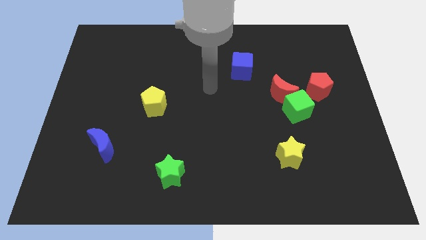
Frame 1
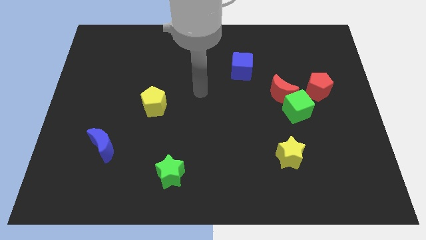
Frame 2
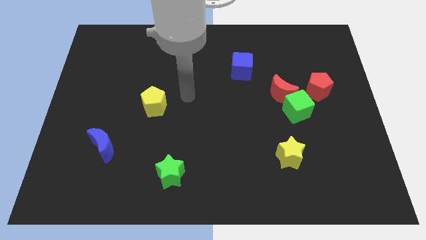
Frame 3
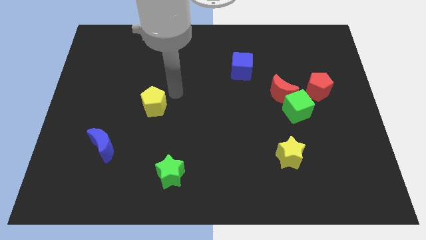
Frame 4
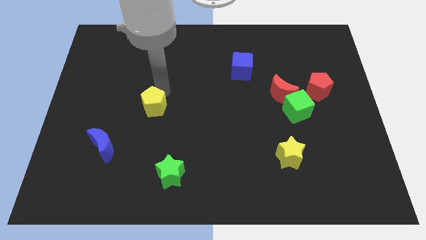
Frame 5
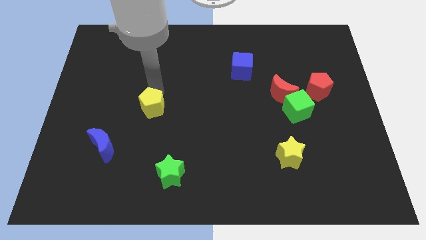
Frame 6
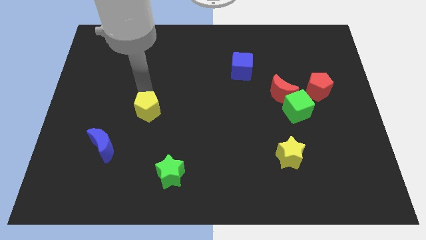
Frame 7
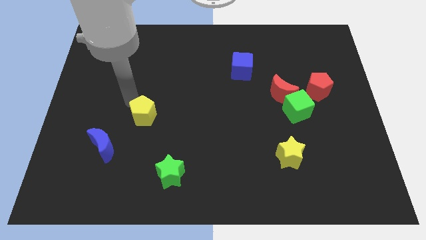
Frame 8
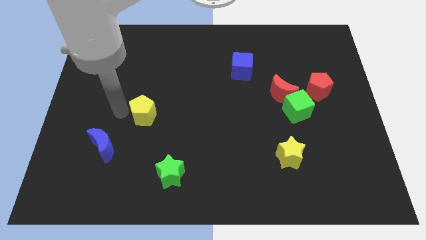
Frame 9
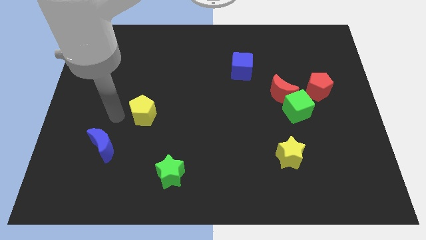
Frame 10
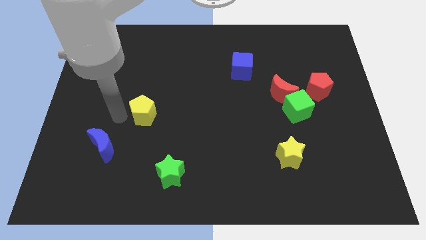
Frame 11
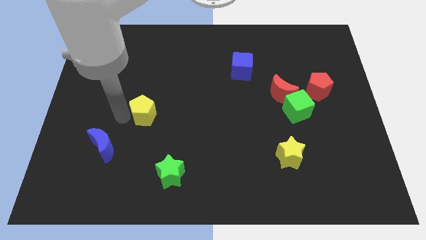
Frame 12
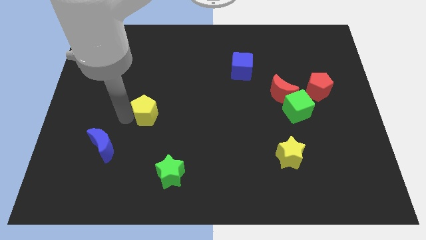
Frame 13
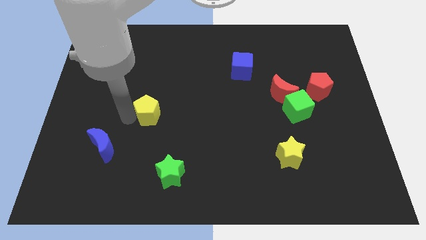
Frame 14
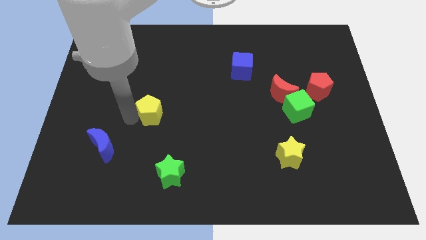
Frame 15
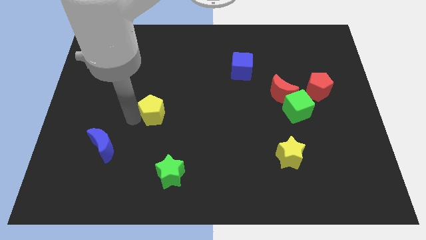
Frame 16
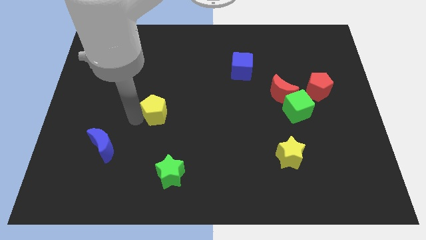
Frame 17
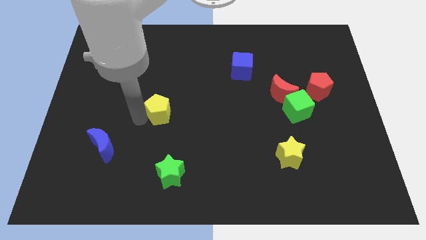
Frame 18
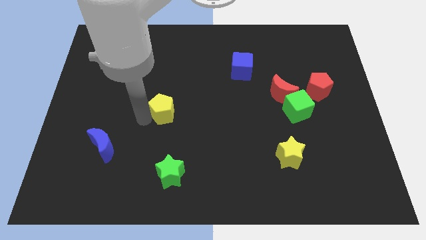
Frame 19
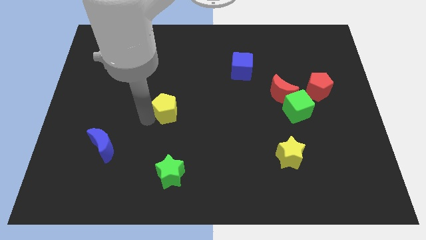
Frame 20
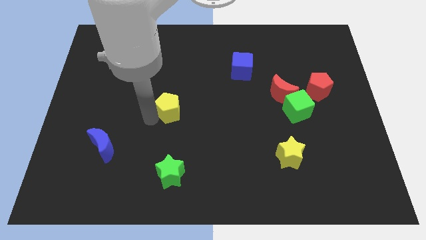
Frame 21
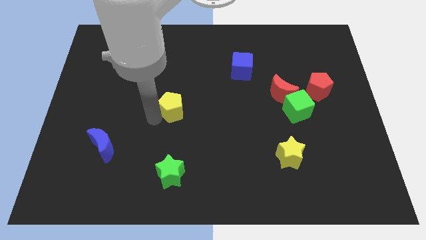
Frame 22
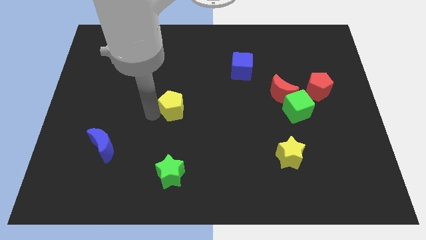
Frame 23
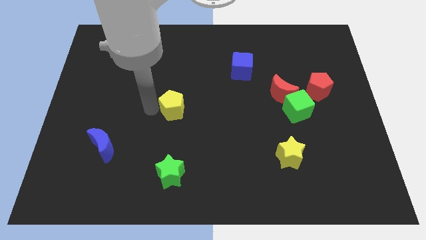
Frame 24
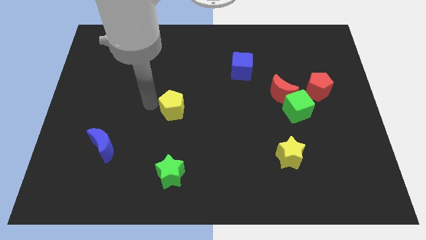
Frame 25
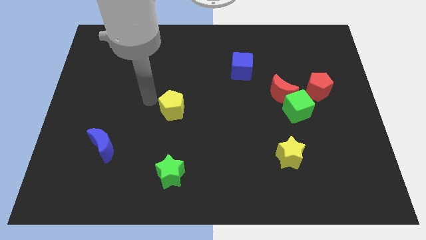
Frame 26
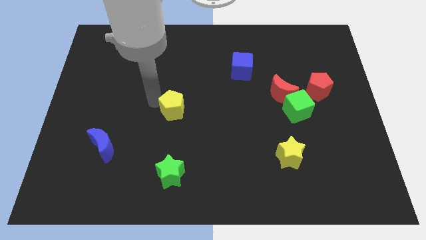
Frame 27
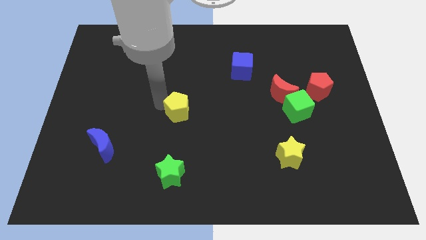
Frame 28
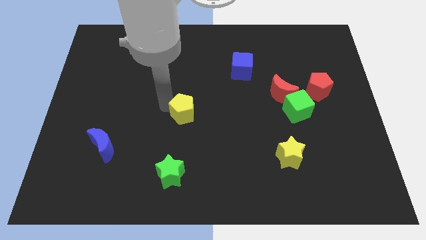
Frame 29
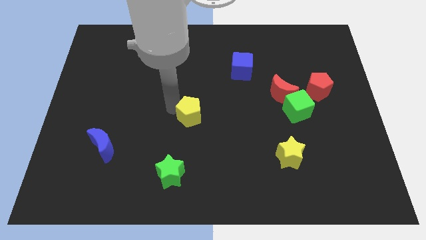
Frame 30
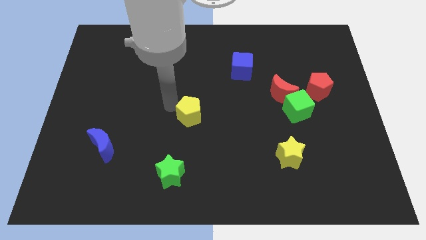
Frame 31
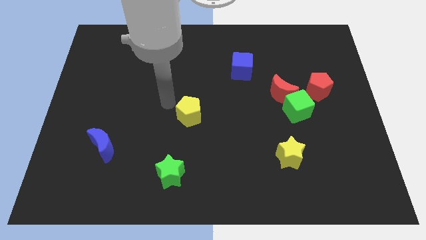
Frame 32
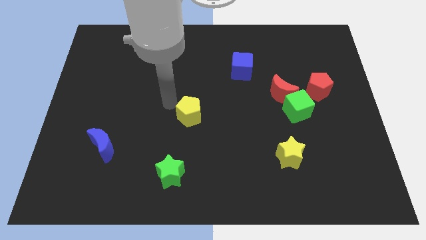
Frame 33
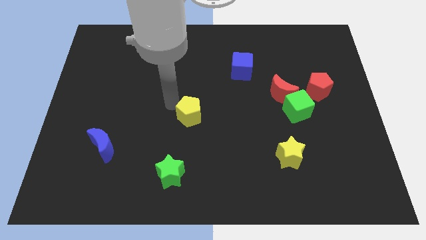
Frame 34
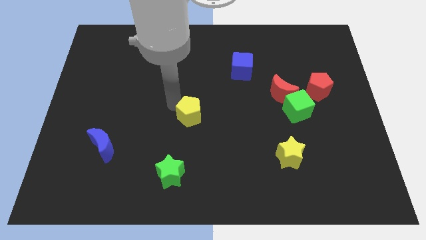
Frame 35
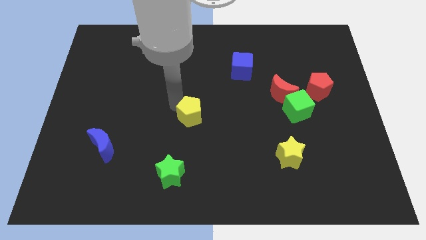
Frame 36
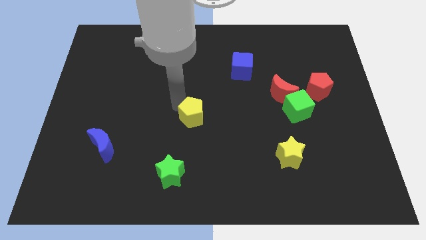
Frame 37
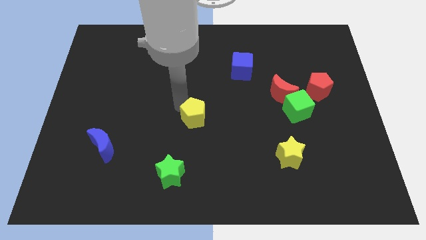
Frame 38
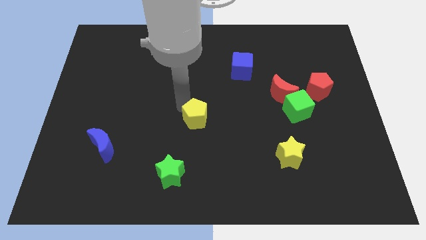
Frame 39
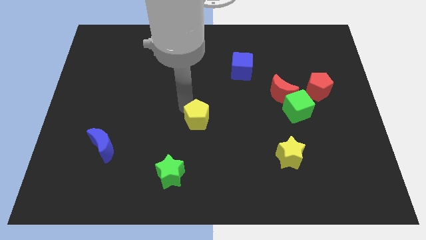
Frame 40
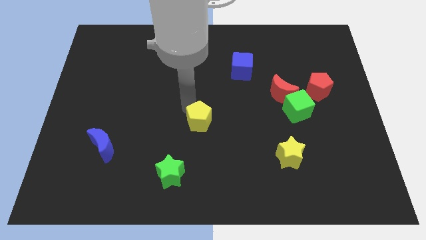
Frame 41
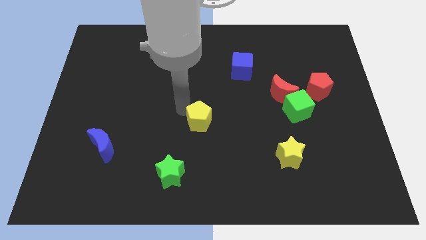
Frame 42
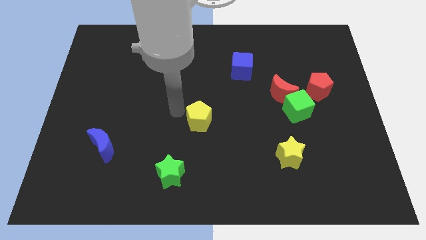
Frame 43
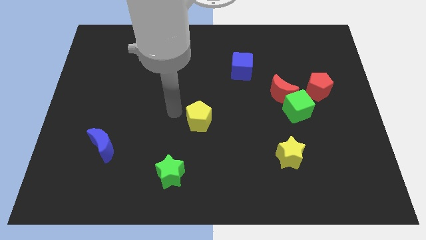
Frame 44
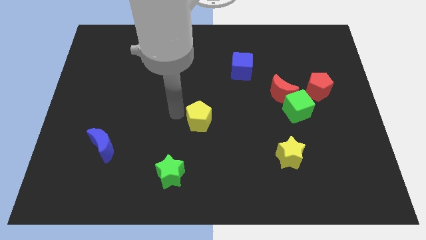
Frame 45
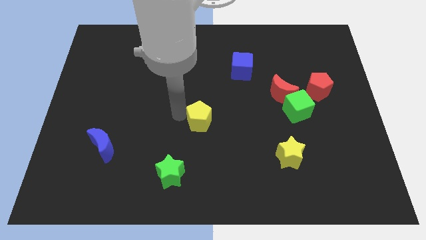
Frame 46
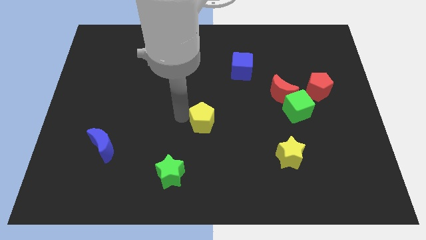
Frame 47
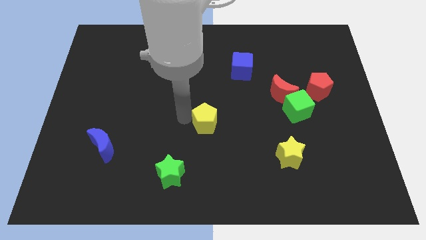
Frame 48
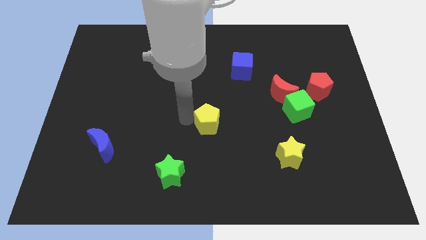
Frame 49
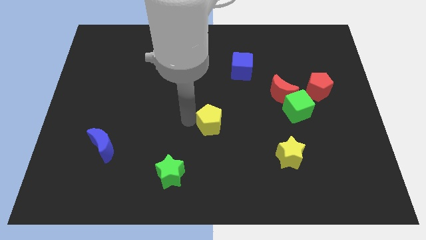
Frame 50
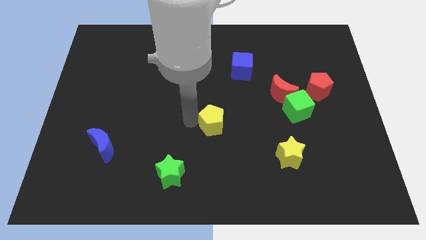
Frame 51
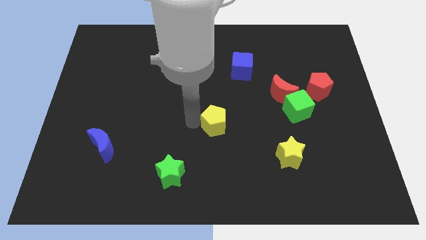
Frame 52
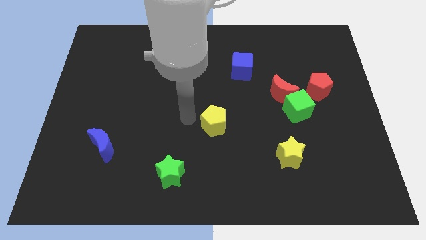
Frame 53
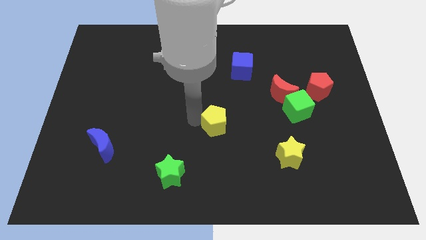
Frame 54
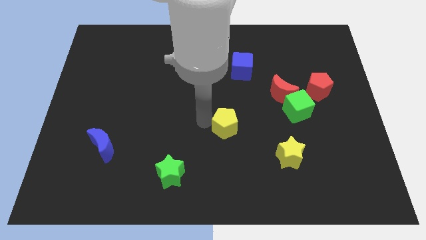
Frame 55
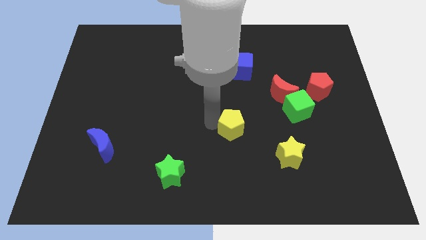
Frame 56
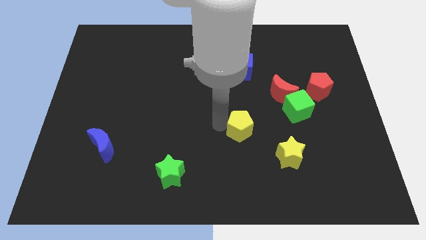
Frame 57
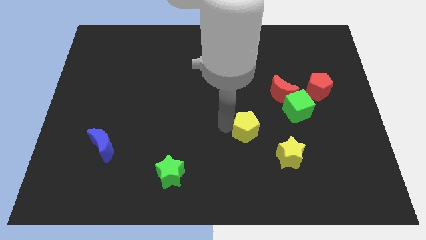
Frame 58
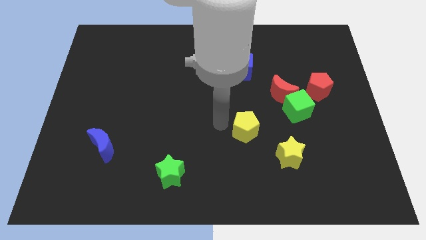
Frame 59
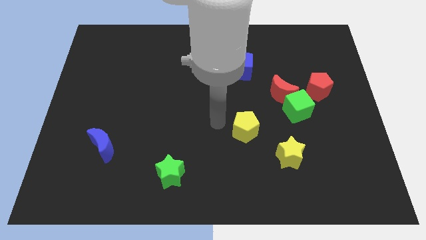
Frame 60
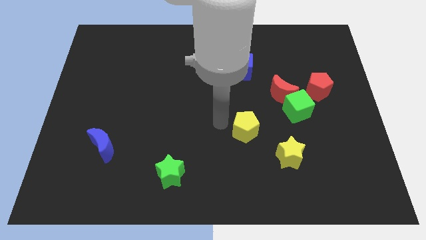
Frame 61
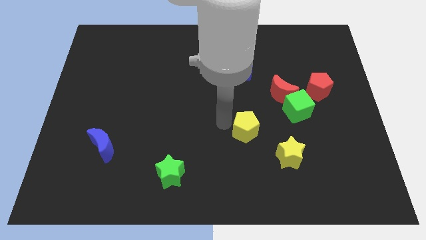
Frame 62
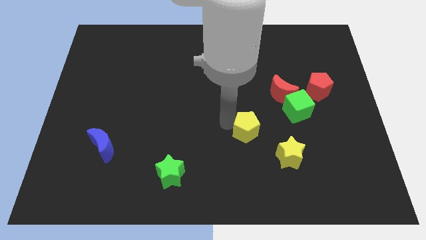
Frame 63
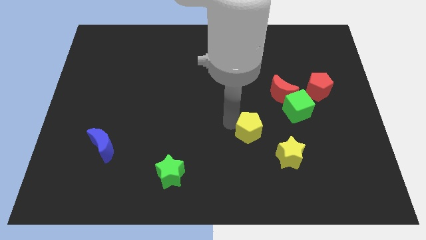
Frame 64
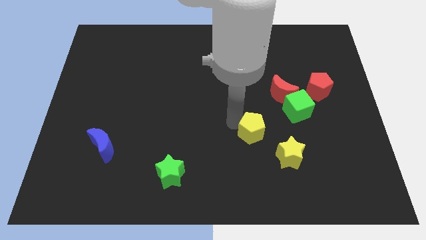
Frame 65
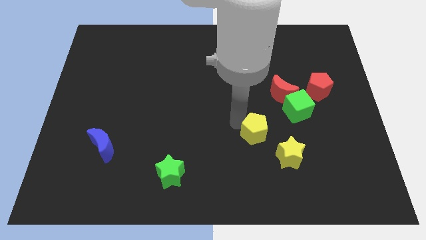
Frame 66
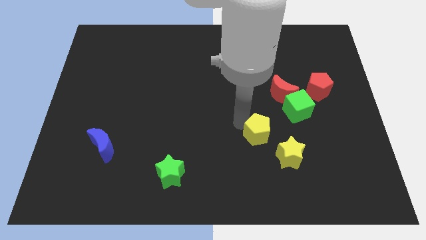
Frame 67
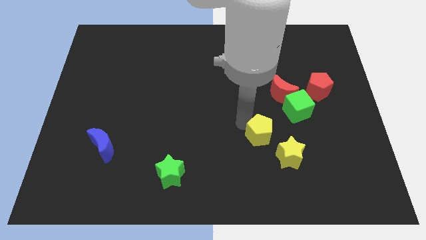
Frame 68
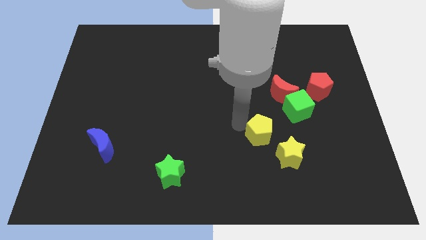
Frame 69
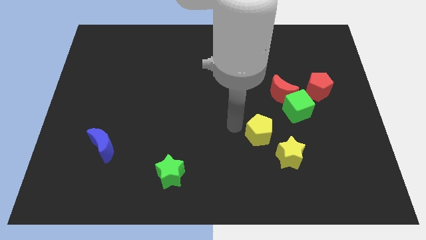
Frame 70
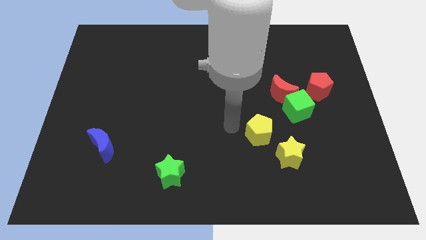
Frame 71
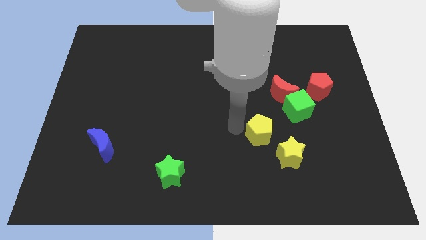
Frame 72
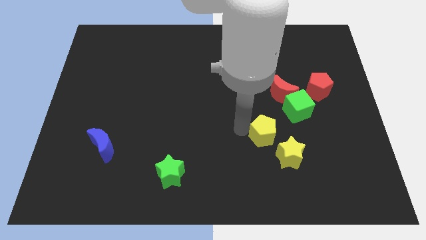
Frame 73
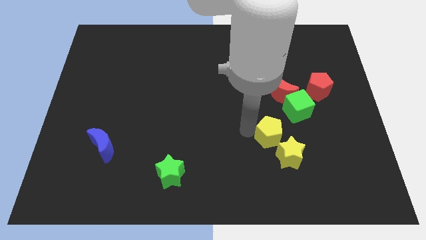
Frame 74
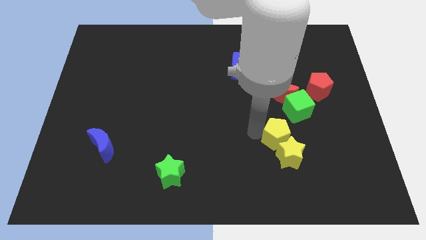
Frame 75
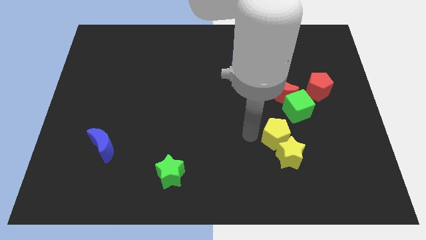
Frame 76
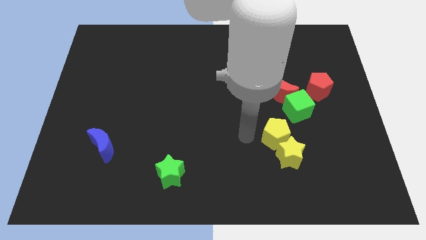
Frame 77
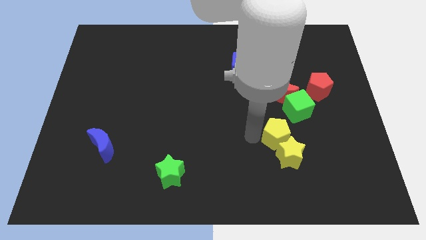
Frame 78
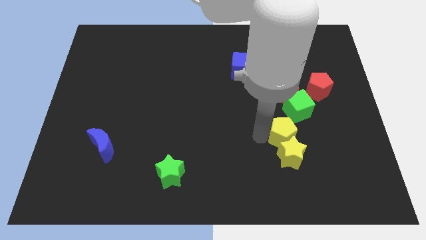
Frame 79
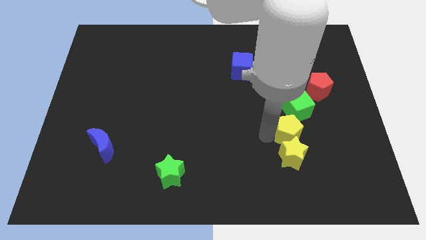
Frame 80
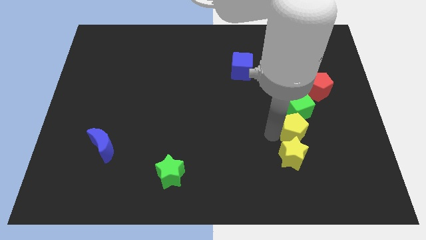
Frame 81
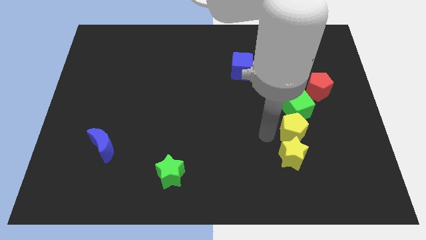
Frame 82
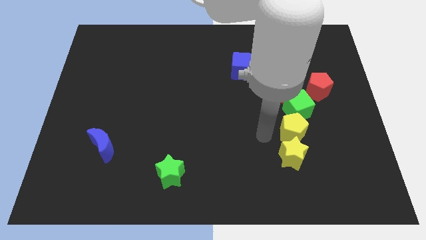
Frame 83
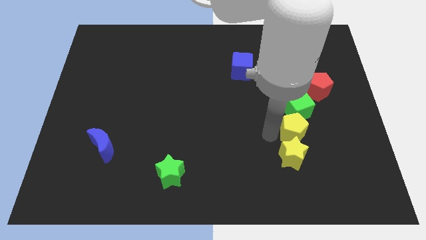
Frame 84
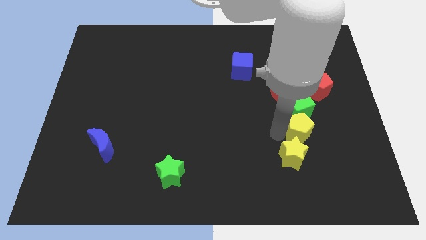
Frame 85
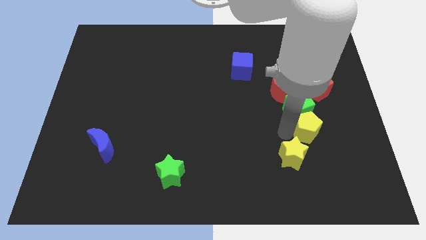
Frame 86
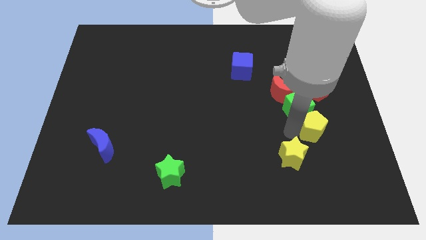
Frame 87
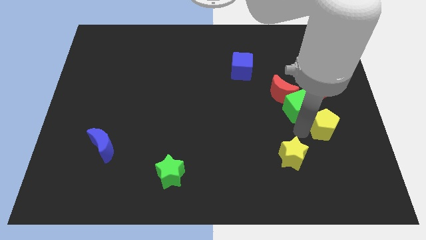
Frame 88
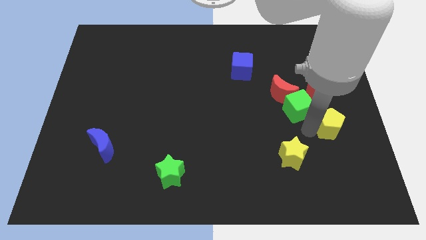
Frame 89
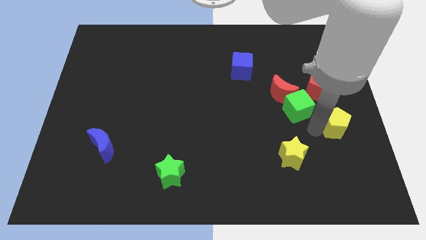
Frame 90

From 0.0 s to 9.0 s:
put the yellow pentagon to the right side
